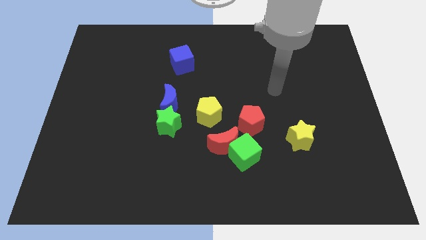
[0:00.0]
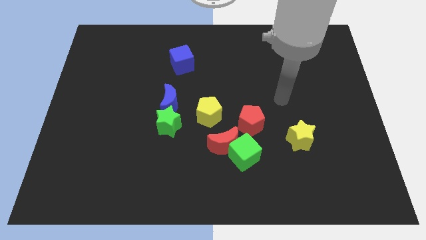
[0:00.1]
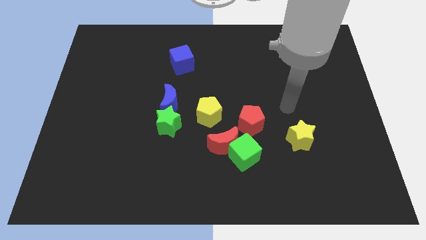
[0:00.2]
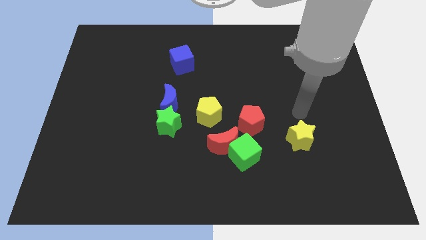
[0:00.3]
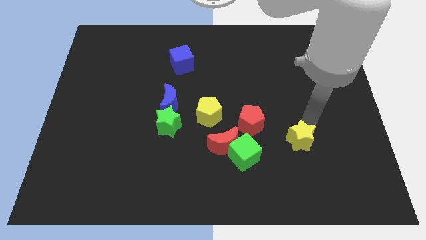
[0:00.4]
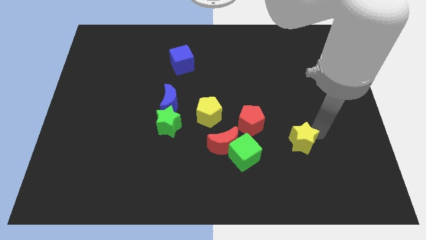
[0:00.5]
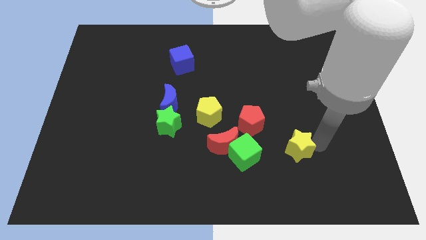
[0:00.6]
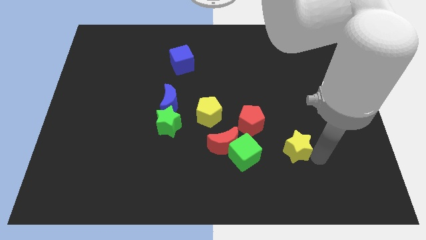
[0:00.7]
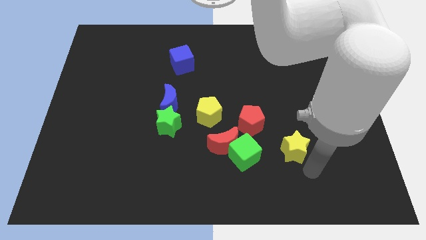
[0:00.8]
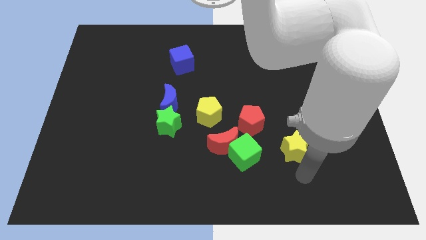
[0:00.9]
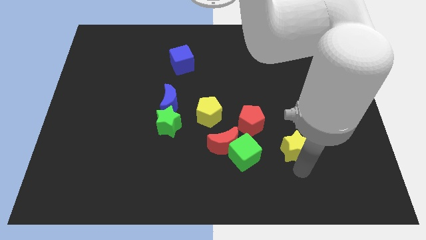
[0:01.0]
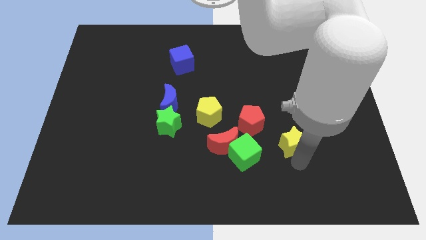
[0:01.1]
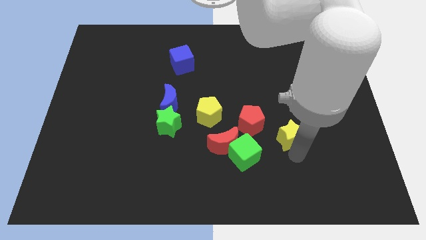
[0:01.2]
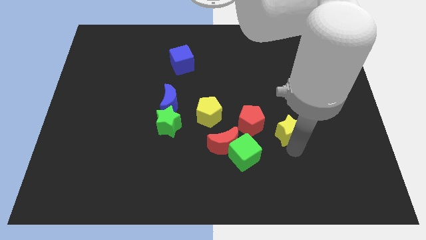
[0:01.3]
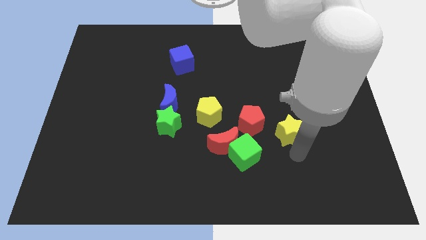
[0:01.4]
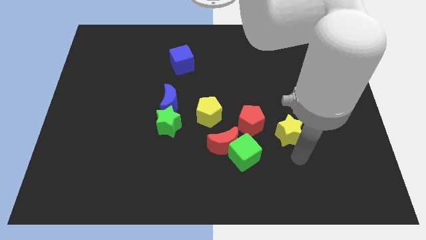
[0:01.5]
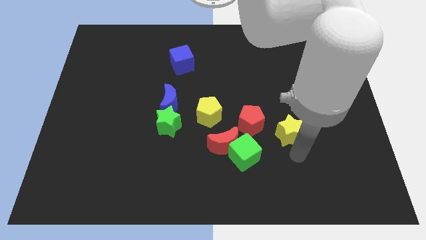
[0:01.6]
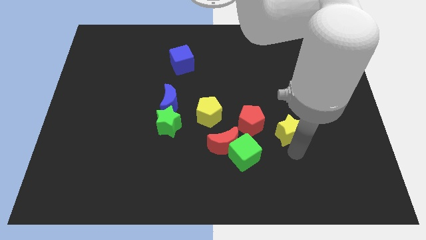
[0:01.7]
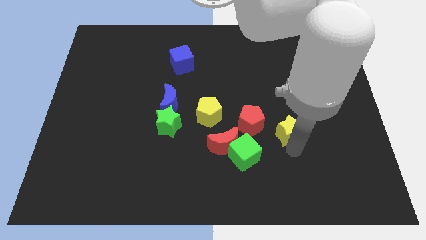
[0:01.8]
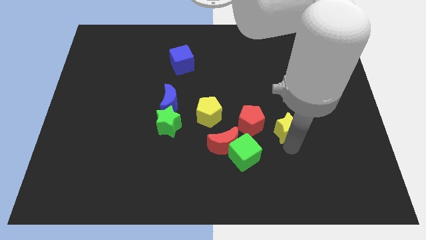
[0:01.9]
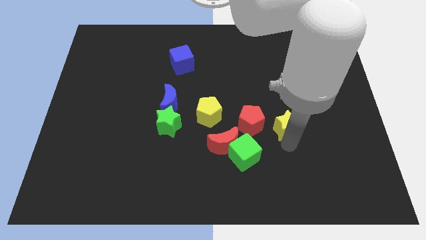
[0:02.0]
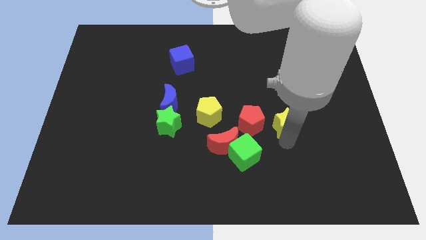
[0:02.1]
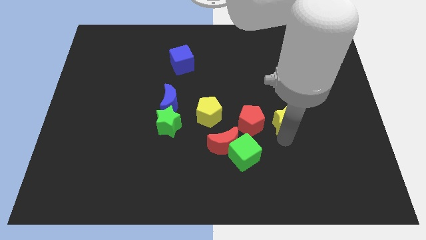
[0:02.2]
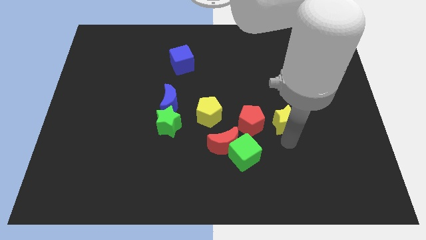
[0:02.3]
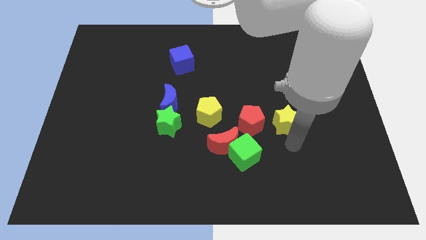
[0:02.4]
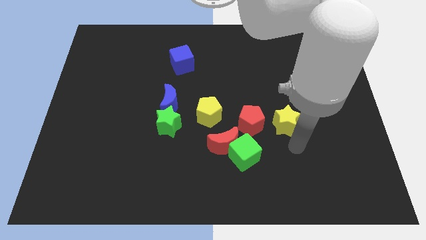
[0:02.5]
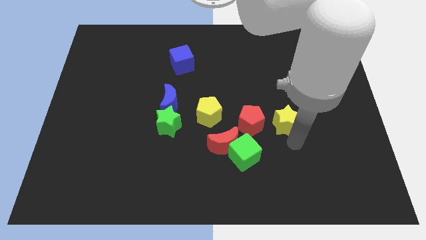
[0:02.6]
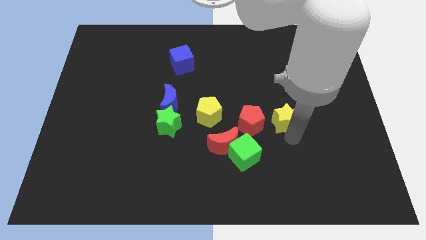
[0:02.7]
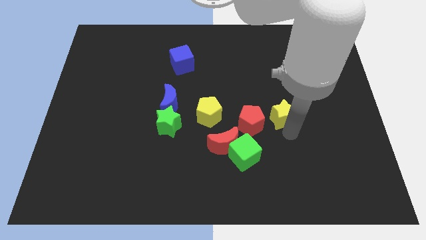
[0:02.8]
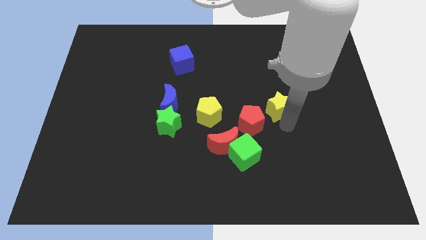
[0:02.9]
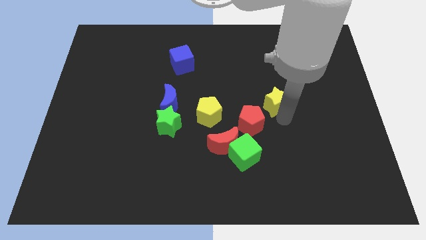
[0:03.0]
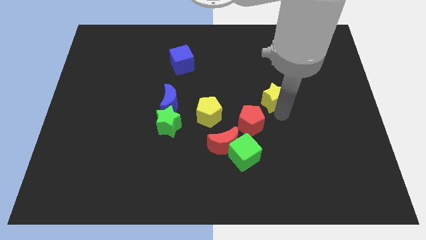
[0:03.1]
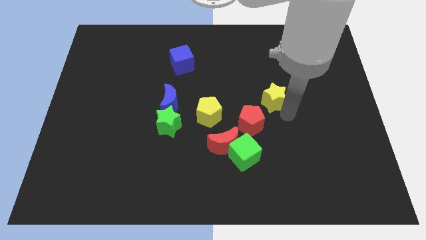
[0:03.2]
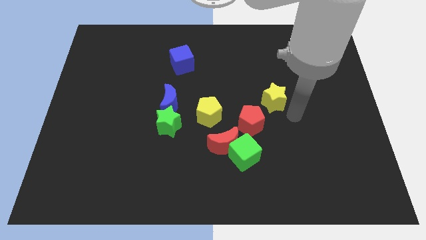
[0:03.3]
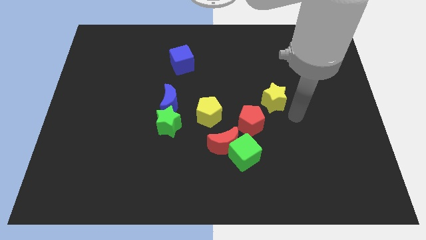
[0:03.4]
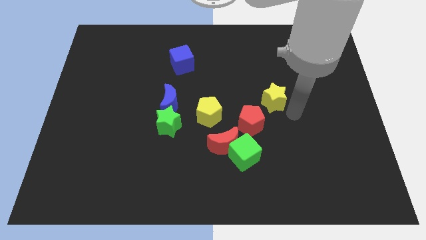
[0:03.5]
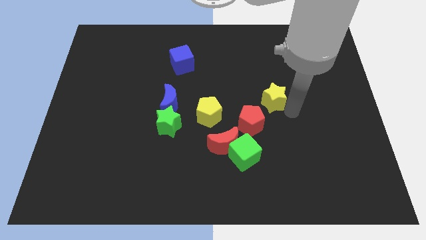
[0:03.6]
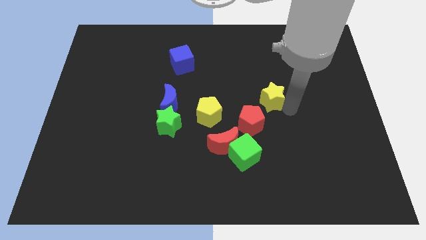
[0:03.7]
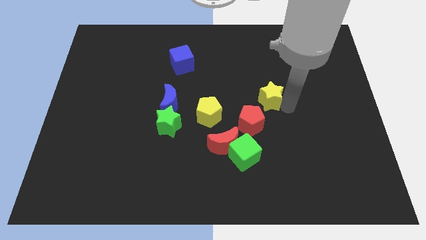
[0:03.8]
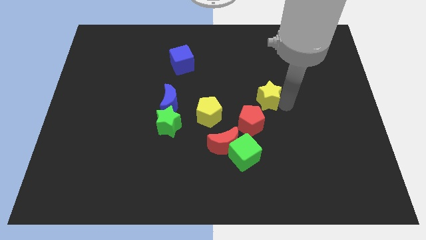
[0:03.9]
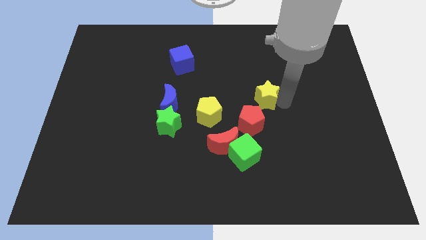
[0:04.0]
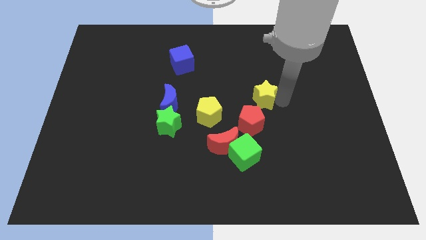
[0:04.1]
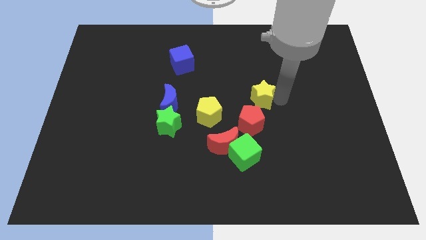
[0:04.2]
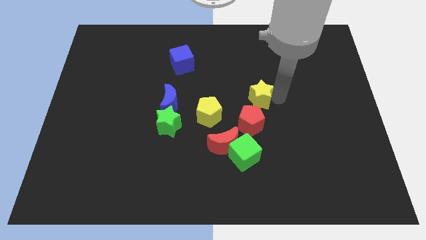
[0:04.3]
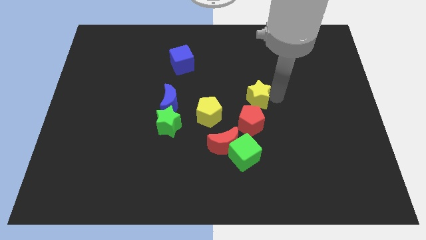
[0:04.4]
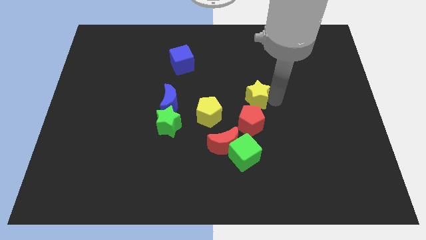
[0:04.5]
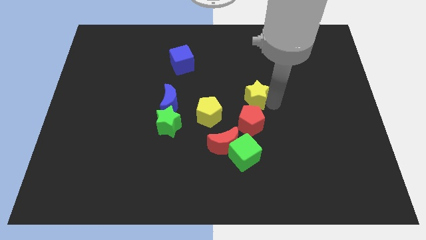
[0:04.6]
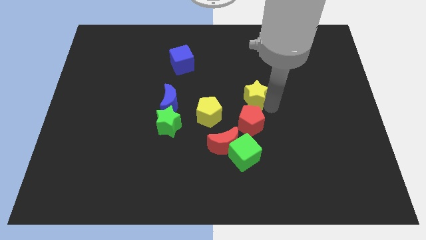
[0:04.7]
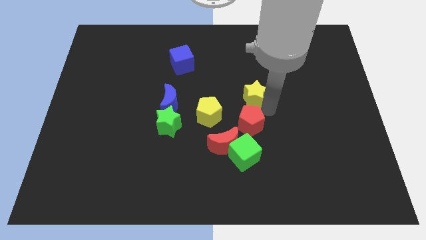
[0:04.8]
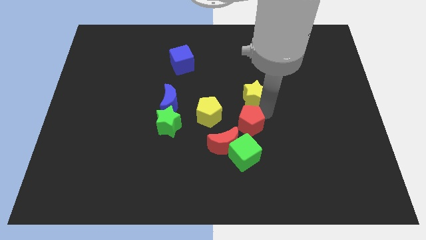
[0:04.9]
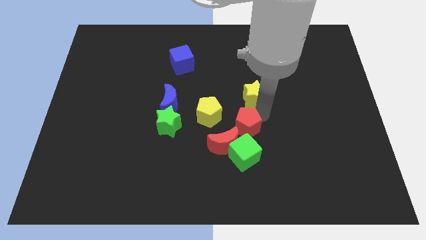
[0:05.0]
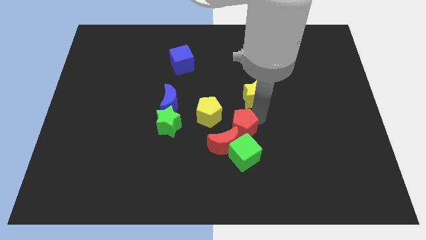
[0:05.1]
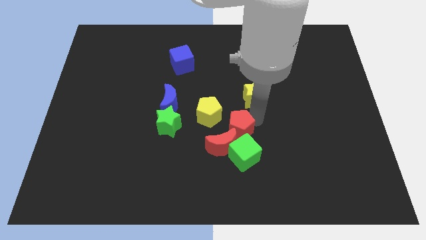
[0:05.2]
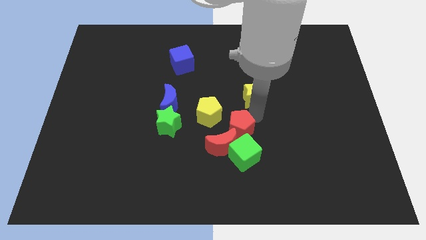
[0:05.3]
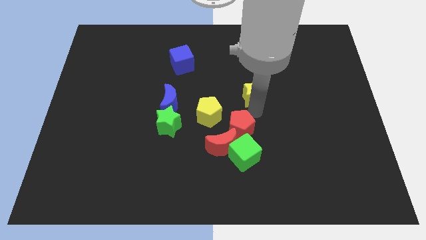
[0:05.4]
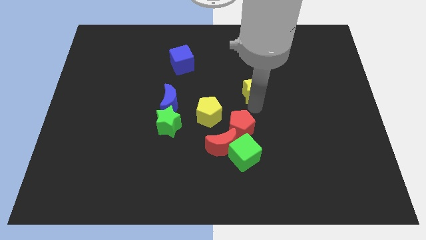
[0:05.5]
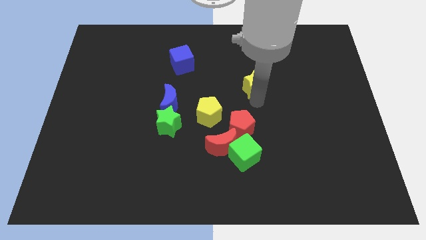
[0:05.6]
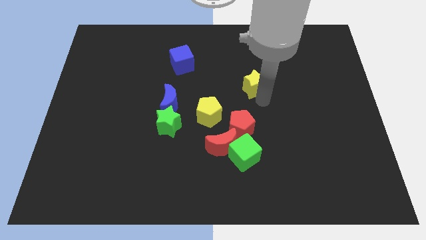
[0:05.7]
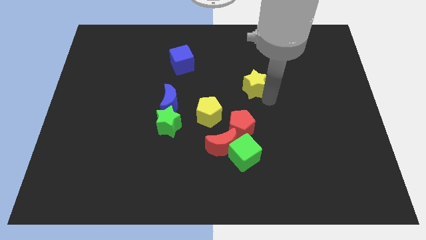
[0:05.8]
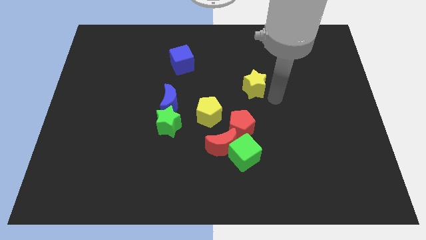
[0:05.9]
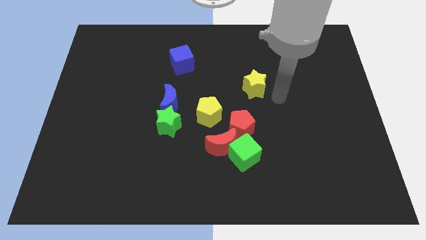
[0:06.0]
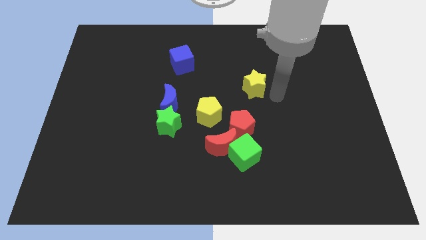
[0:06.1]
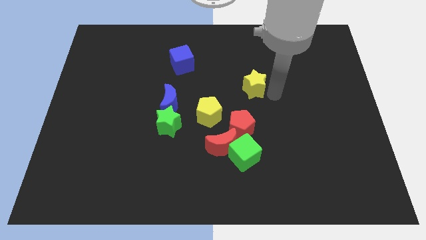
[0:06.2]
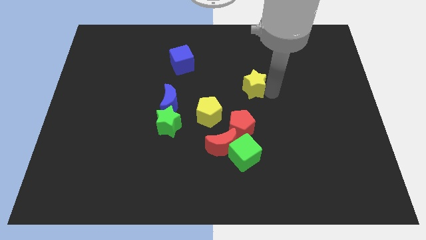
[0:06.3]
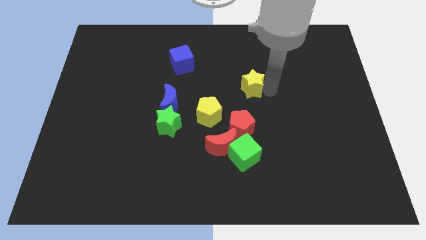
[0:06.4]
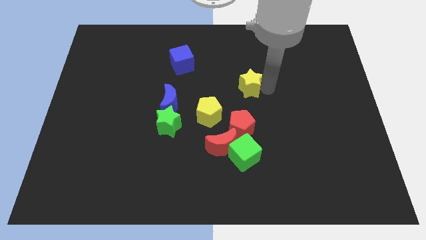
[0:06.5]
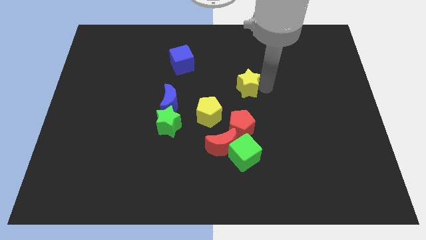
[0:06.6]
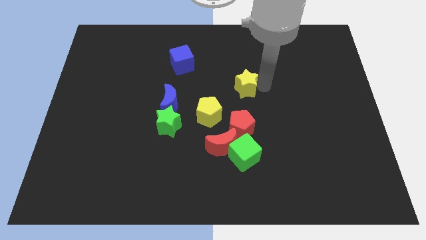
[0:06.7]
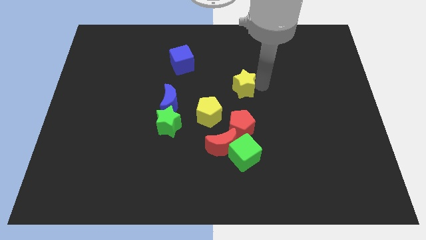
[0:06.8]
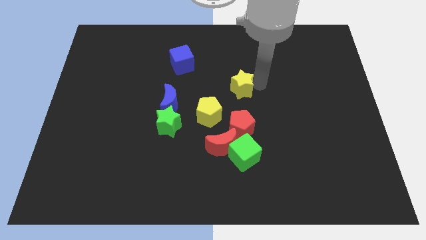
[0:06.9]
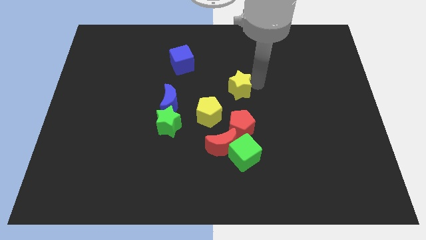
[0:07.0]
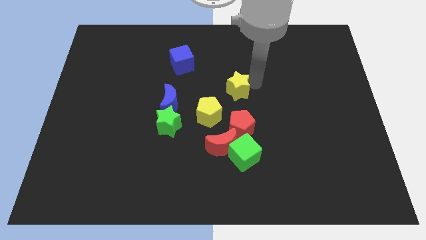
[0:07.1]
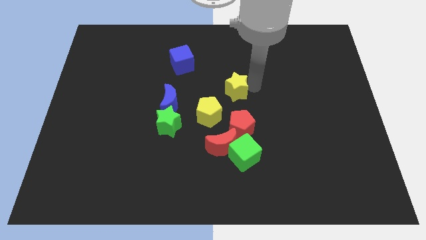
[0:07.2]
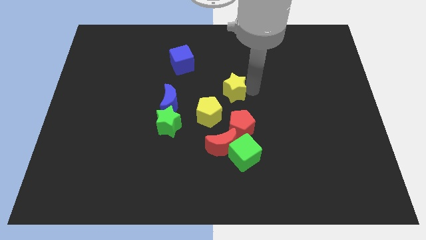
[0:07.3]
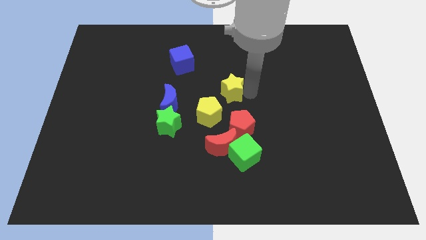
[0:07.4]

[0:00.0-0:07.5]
slide the yellow star upwards and then to the left

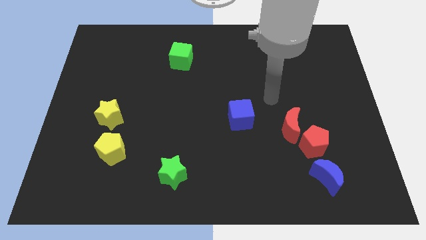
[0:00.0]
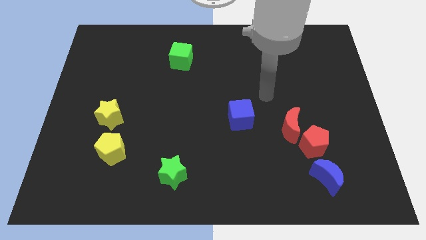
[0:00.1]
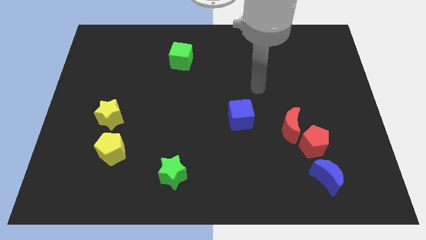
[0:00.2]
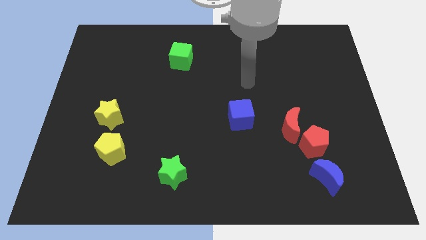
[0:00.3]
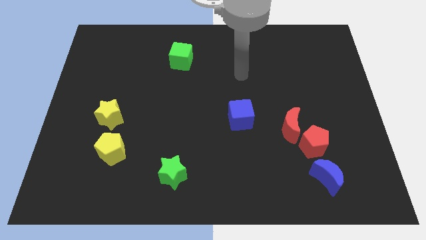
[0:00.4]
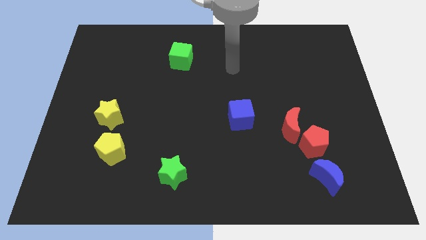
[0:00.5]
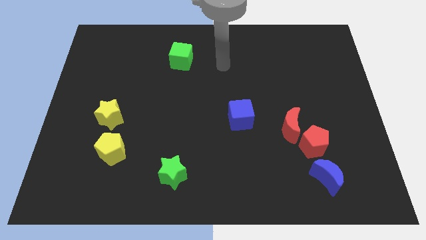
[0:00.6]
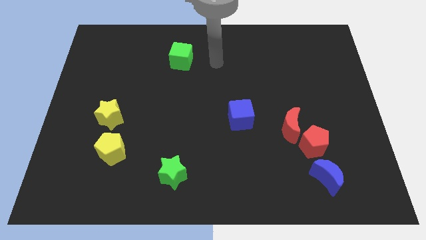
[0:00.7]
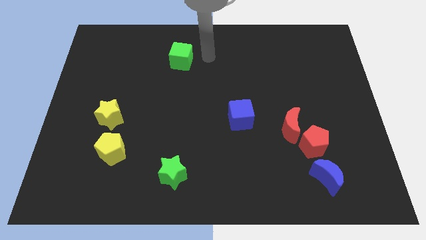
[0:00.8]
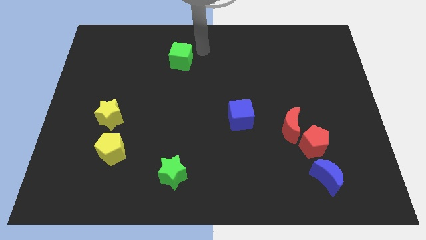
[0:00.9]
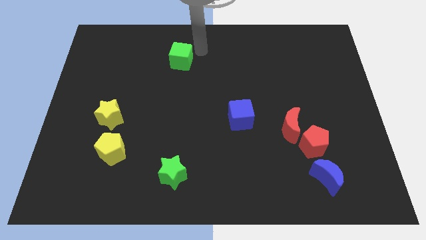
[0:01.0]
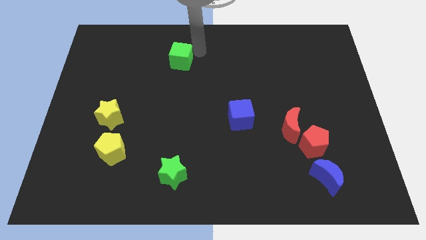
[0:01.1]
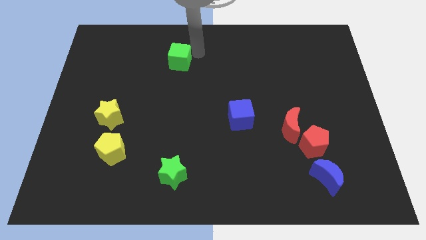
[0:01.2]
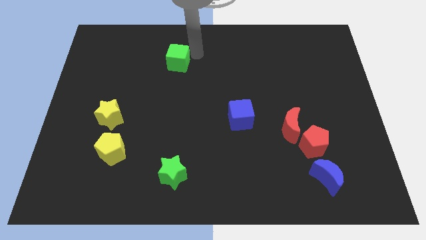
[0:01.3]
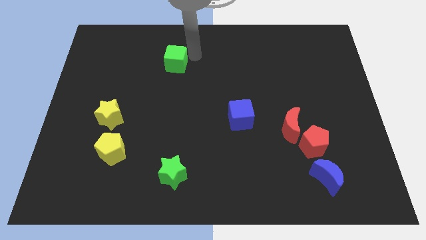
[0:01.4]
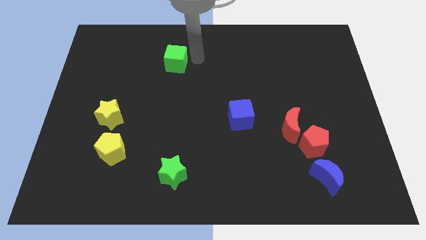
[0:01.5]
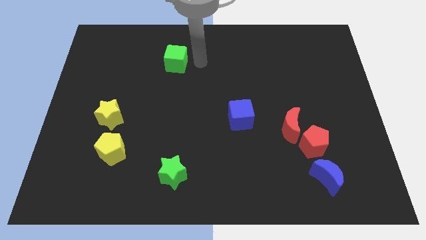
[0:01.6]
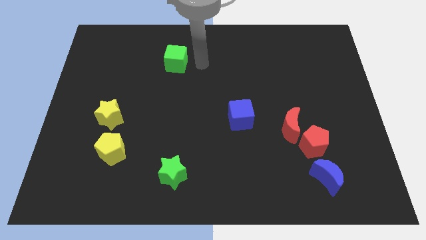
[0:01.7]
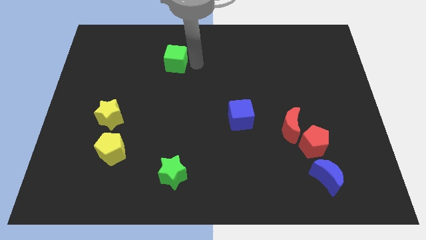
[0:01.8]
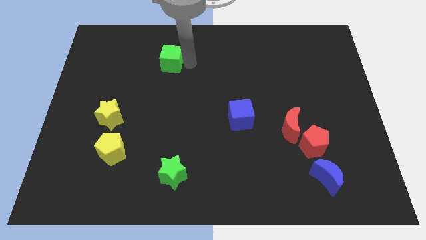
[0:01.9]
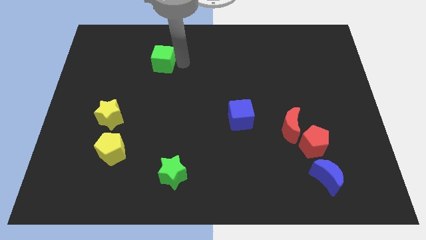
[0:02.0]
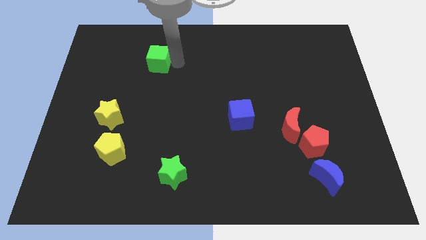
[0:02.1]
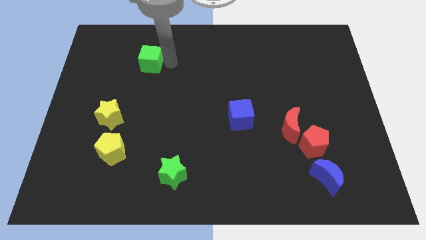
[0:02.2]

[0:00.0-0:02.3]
push the green cube a little bit to the left
